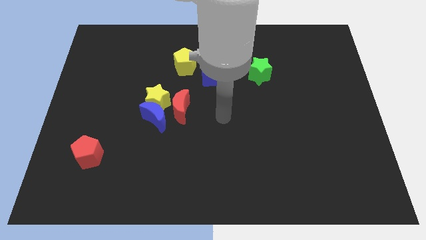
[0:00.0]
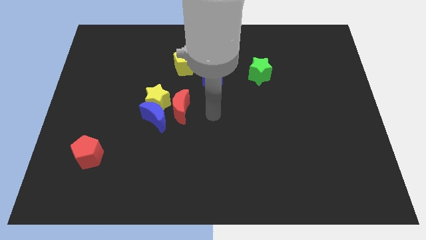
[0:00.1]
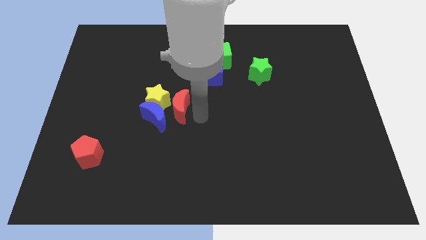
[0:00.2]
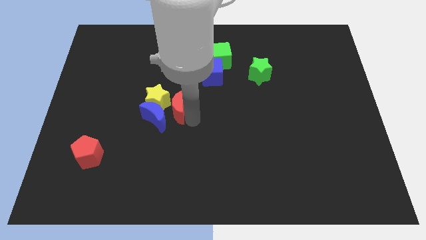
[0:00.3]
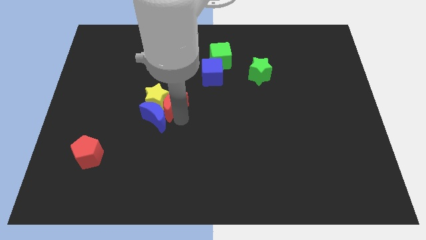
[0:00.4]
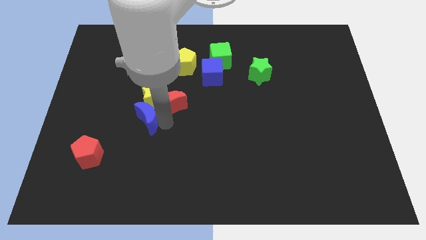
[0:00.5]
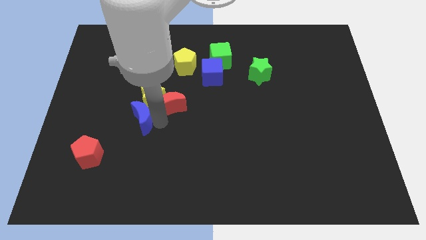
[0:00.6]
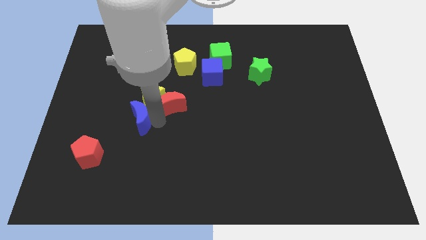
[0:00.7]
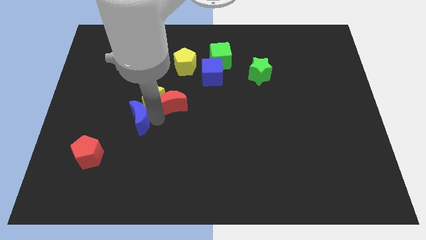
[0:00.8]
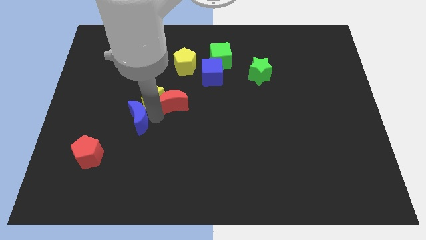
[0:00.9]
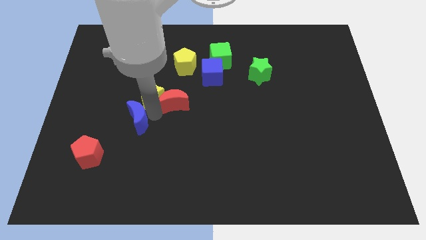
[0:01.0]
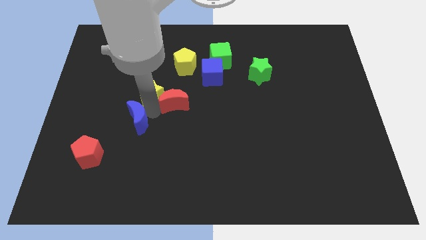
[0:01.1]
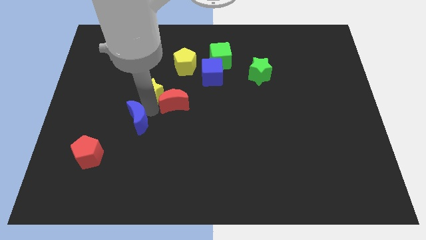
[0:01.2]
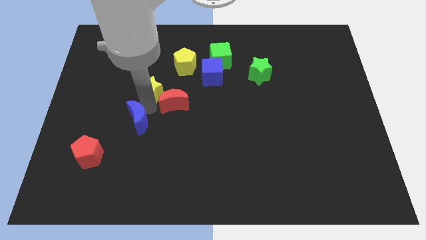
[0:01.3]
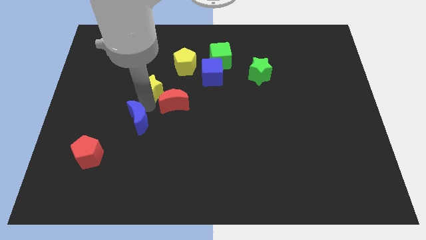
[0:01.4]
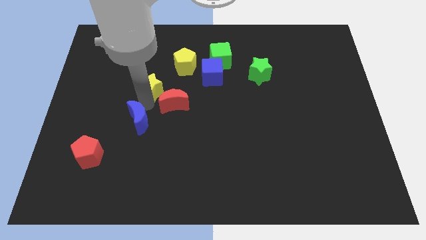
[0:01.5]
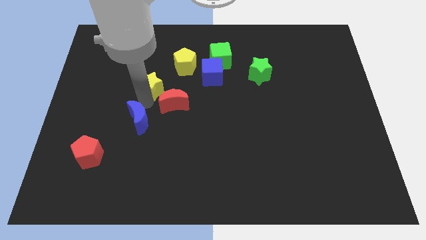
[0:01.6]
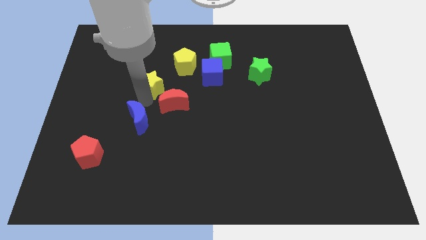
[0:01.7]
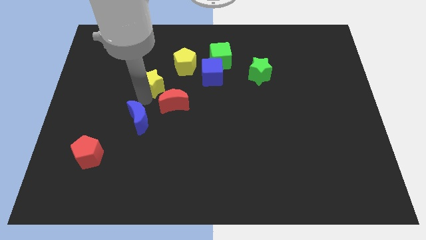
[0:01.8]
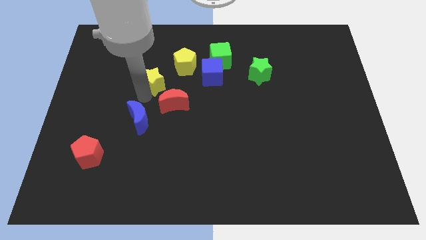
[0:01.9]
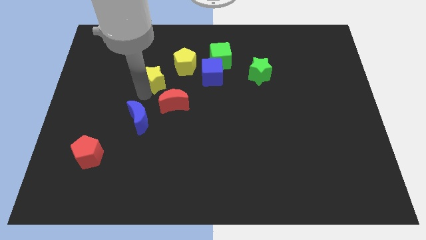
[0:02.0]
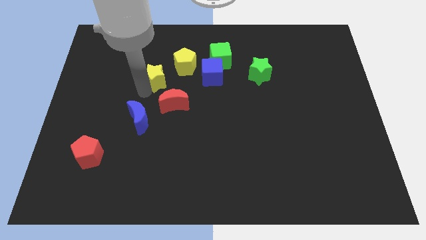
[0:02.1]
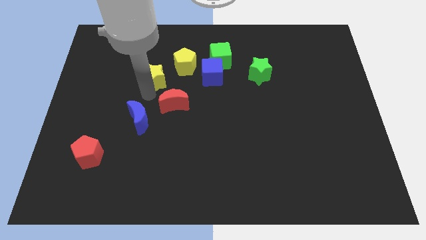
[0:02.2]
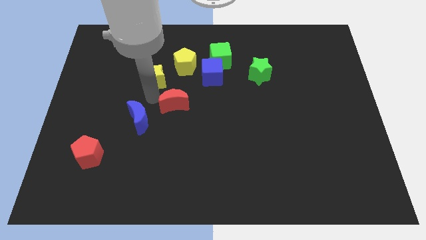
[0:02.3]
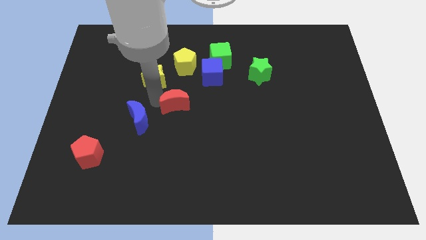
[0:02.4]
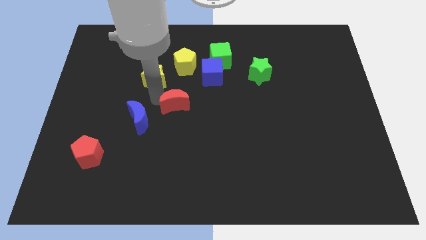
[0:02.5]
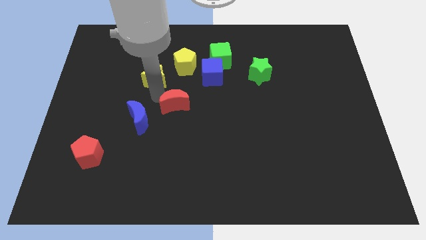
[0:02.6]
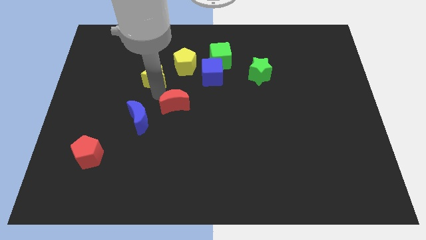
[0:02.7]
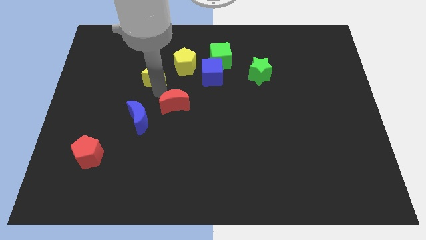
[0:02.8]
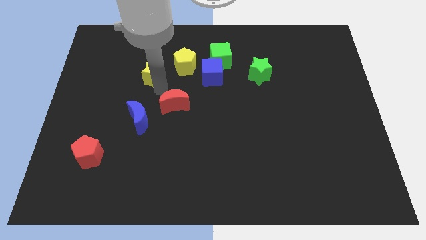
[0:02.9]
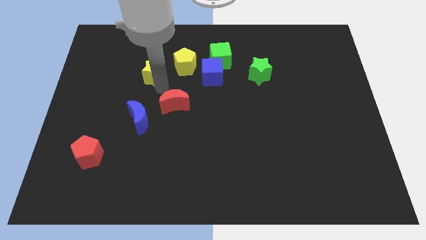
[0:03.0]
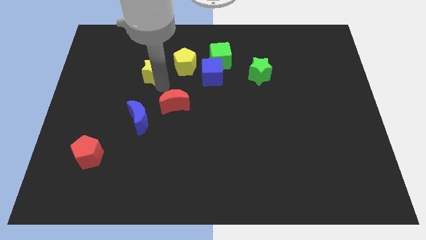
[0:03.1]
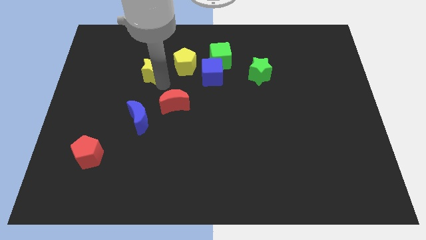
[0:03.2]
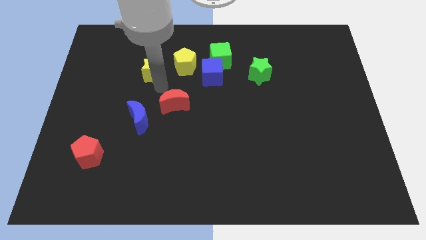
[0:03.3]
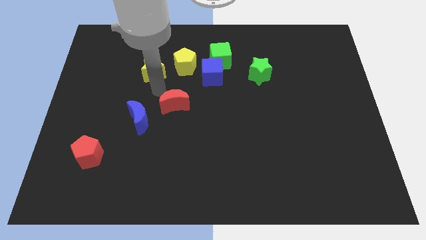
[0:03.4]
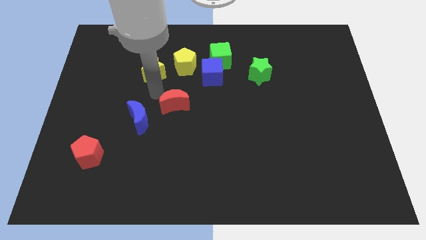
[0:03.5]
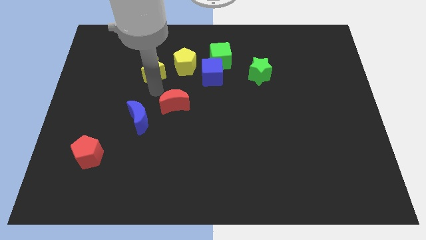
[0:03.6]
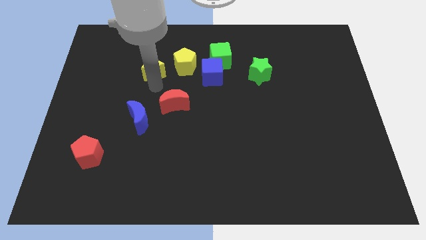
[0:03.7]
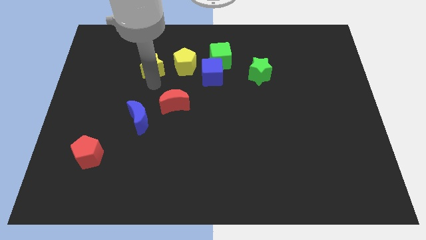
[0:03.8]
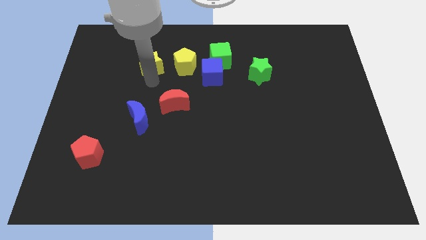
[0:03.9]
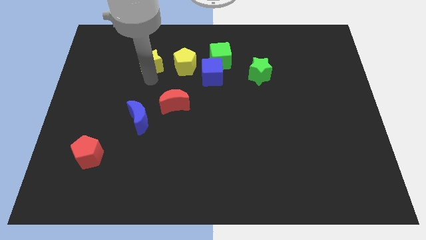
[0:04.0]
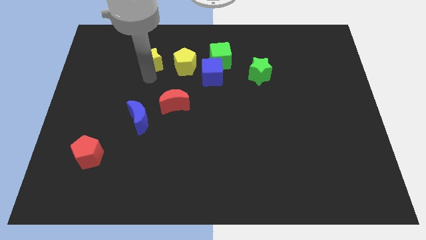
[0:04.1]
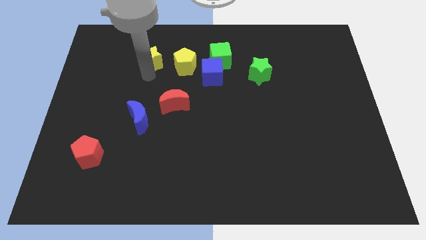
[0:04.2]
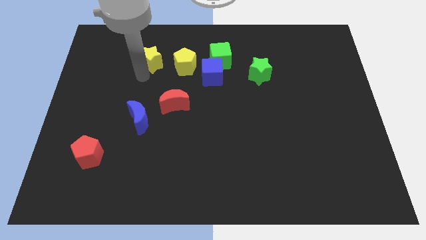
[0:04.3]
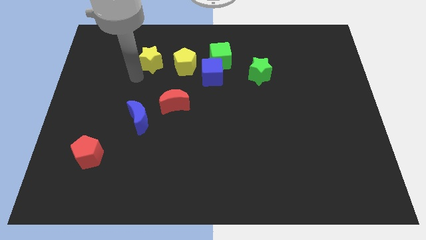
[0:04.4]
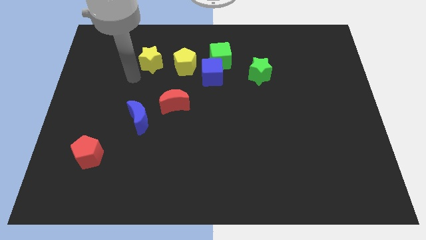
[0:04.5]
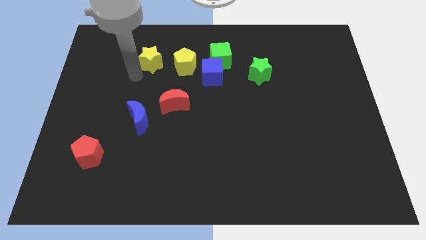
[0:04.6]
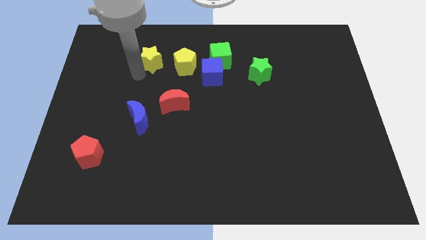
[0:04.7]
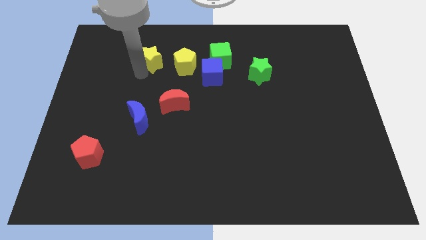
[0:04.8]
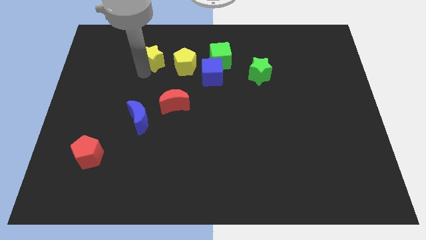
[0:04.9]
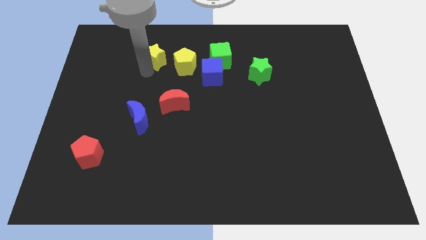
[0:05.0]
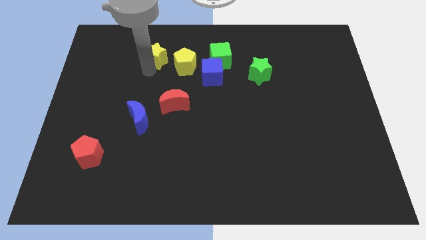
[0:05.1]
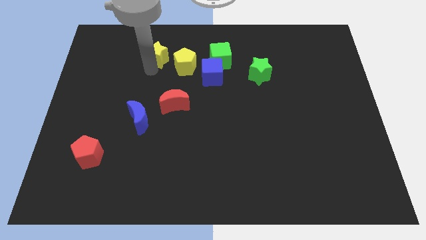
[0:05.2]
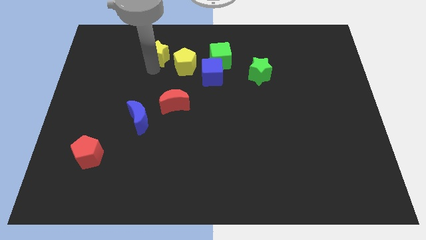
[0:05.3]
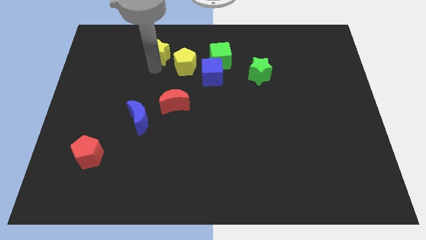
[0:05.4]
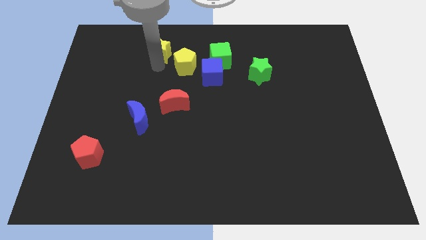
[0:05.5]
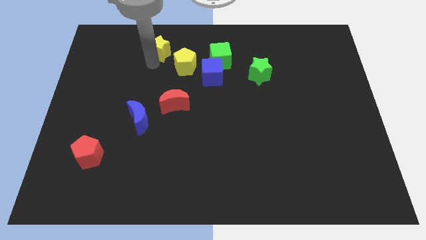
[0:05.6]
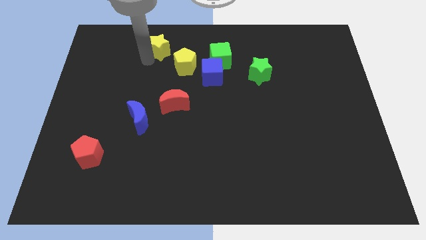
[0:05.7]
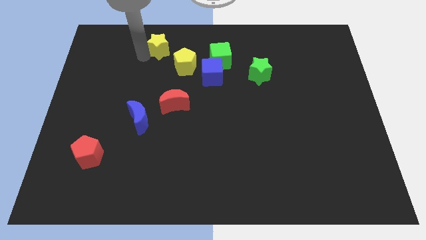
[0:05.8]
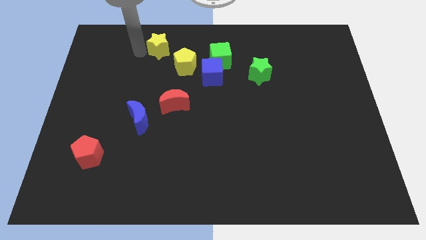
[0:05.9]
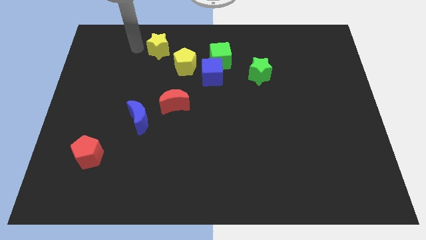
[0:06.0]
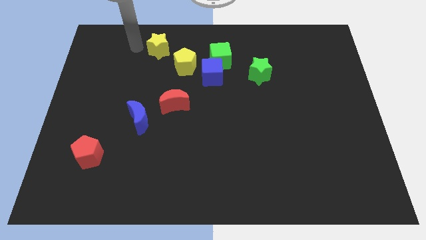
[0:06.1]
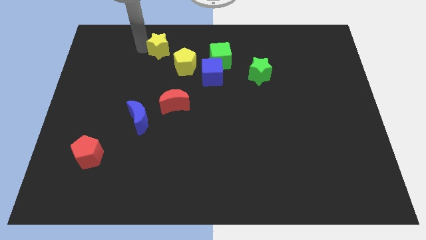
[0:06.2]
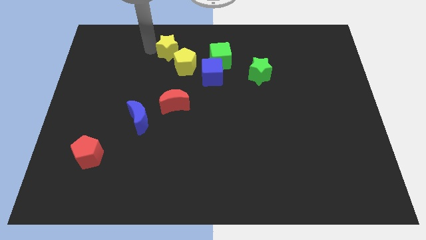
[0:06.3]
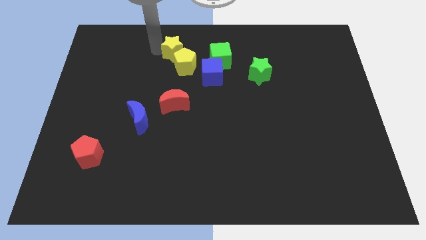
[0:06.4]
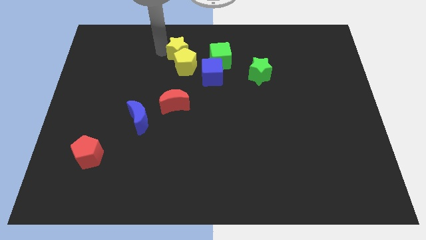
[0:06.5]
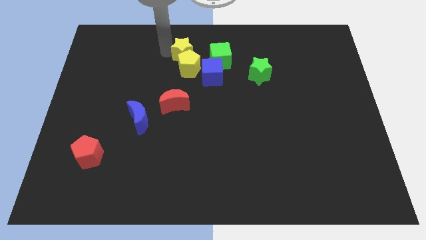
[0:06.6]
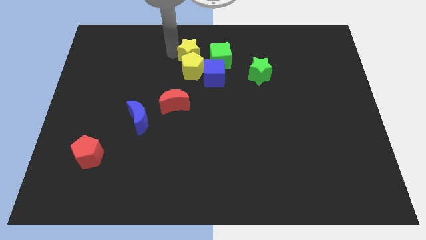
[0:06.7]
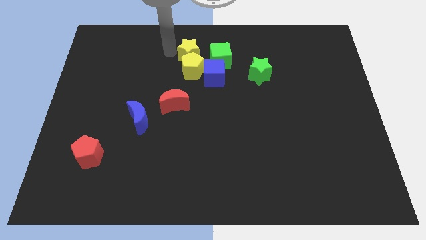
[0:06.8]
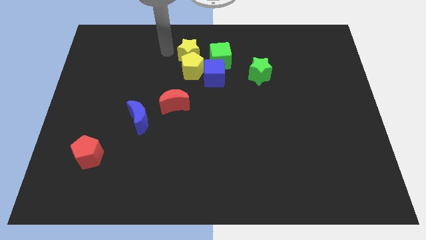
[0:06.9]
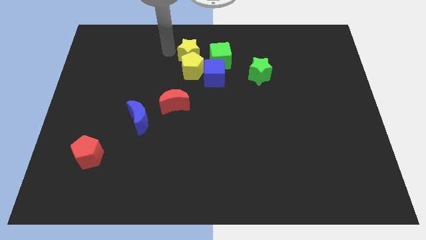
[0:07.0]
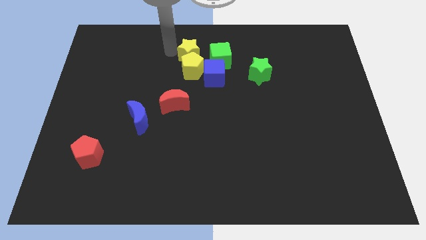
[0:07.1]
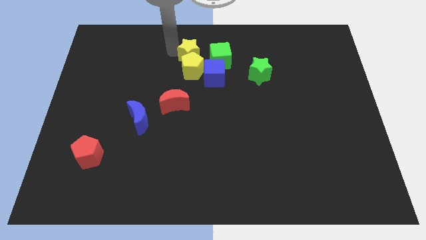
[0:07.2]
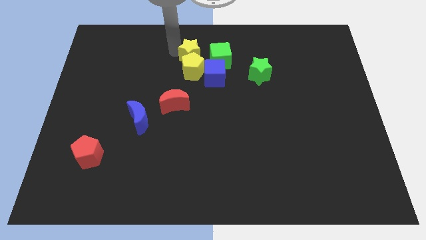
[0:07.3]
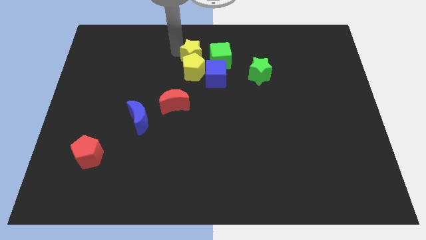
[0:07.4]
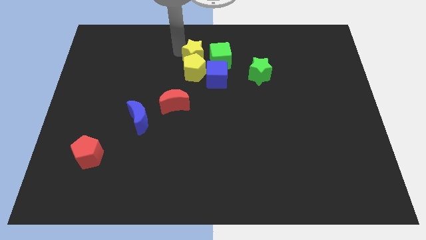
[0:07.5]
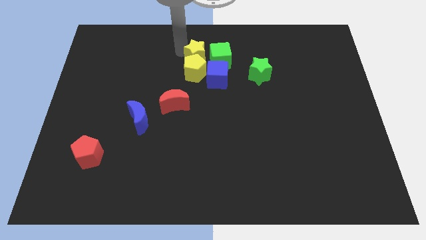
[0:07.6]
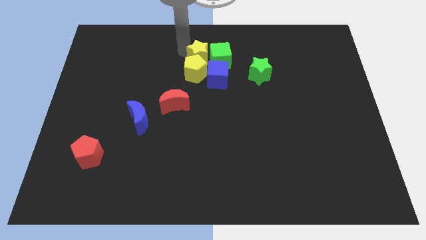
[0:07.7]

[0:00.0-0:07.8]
slide the yellow star next to the green cube
